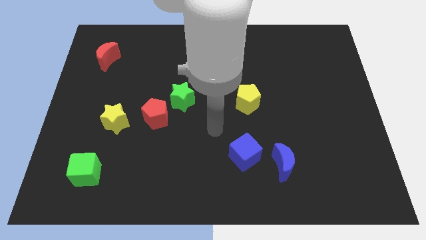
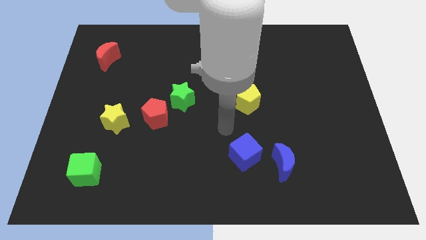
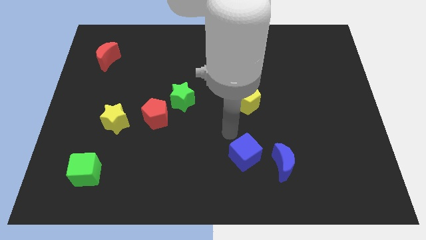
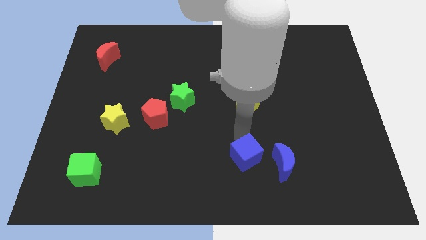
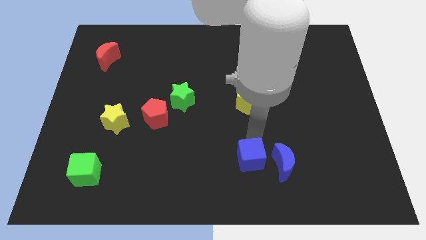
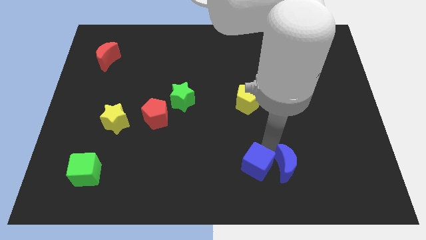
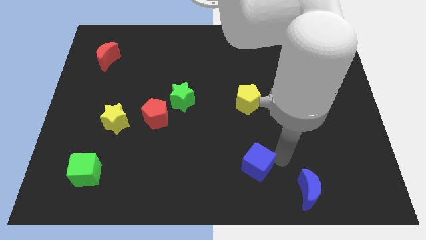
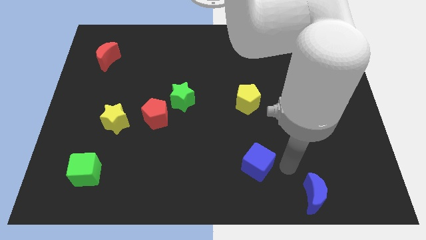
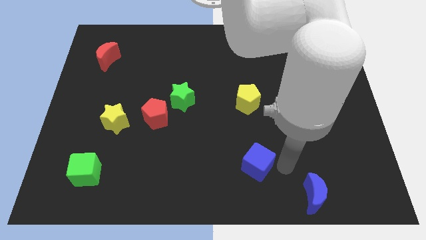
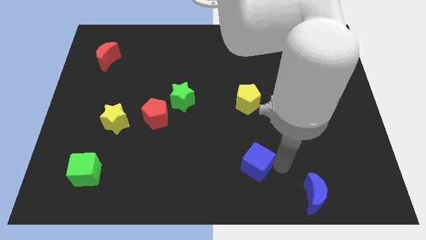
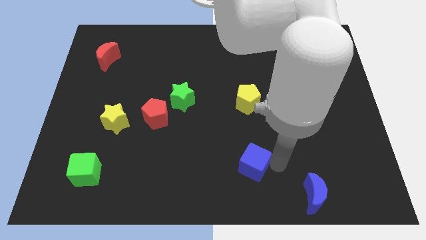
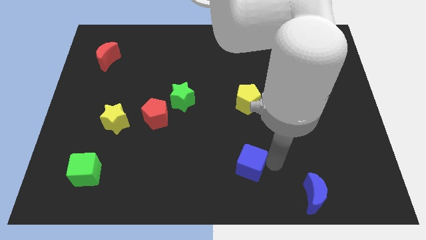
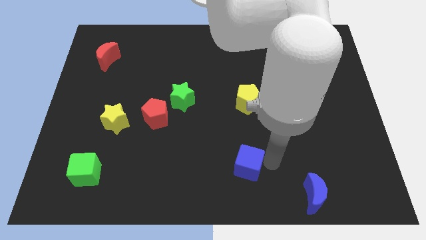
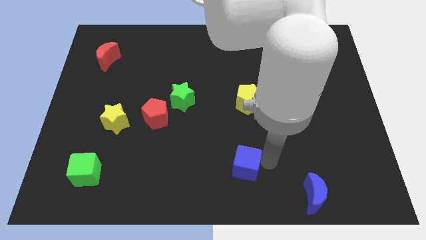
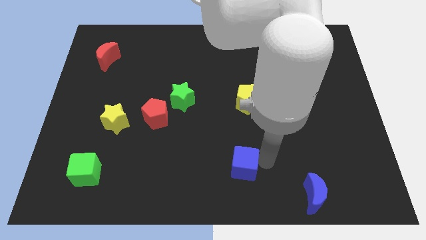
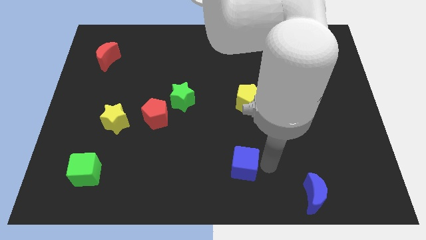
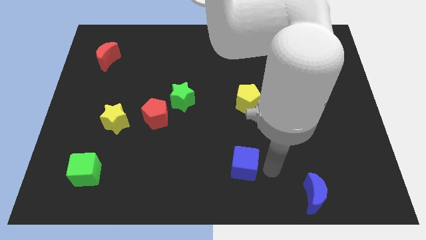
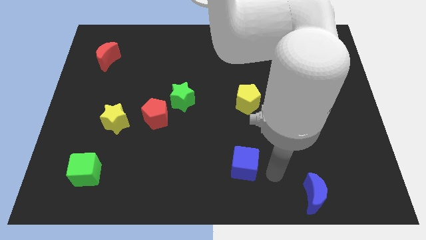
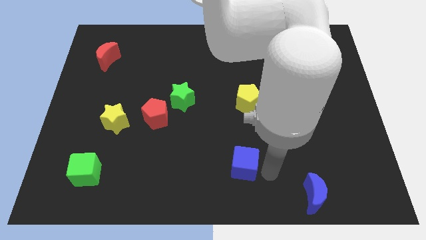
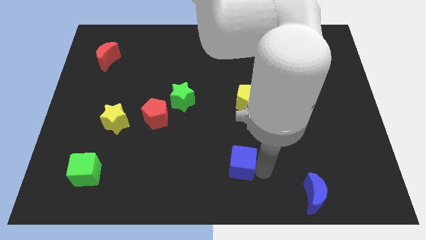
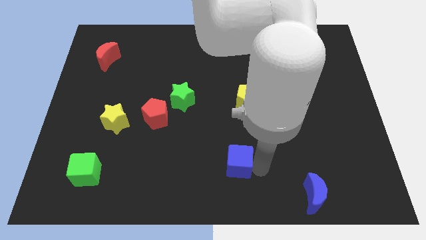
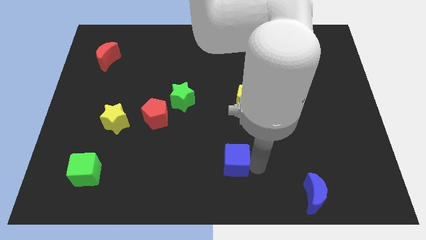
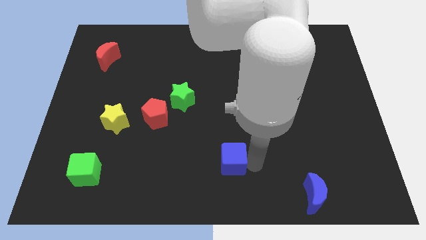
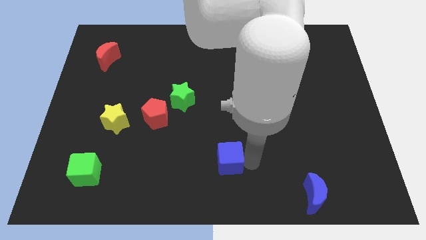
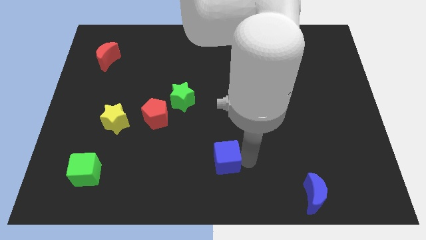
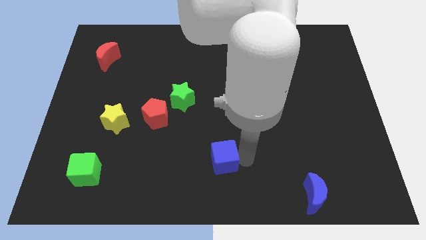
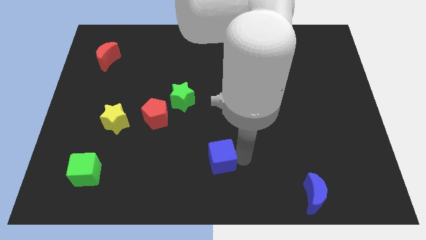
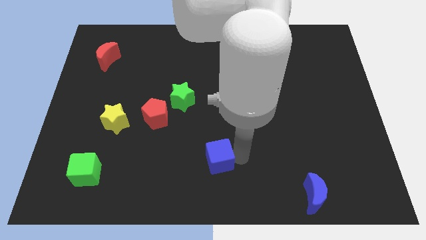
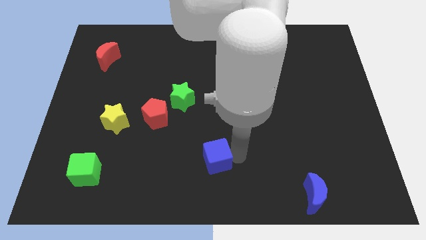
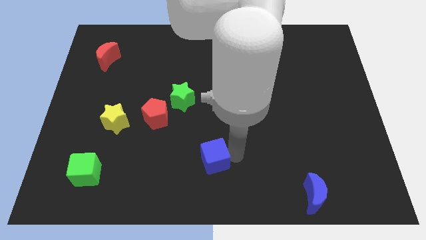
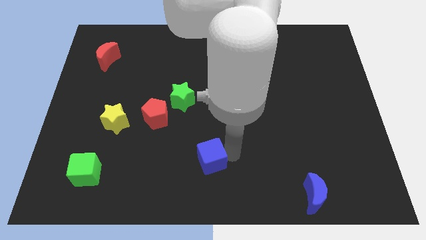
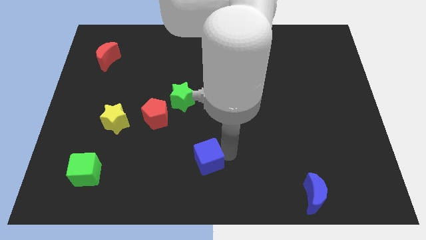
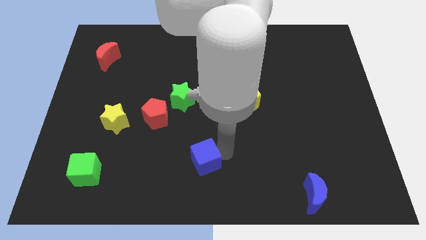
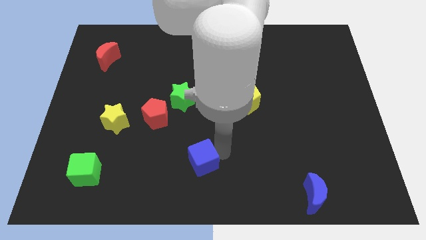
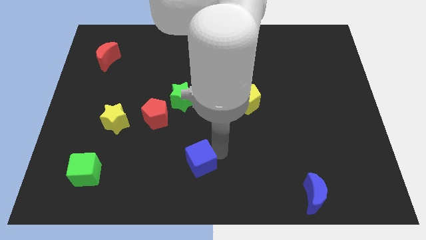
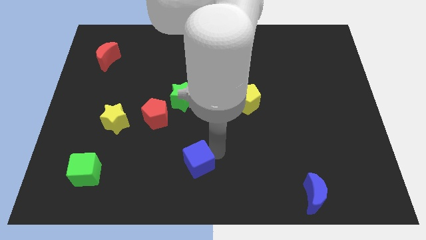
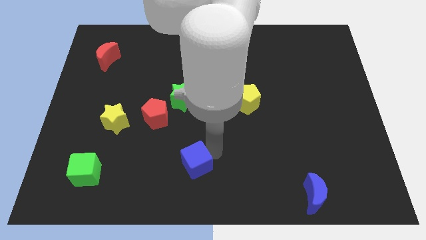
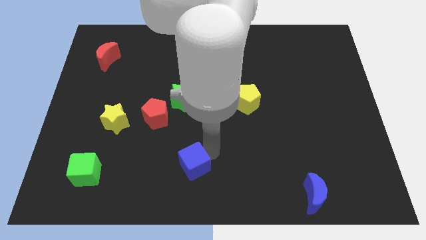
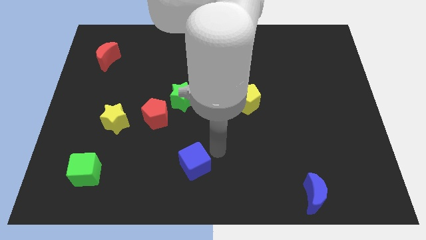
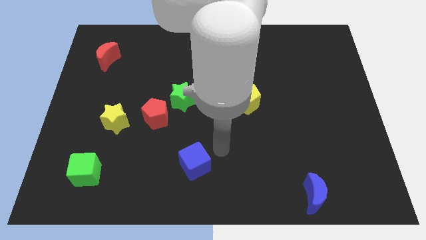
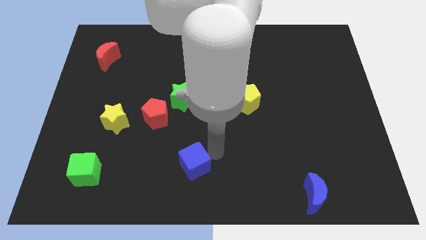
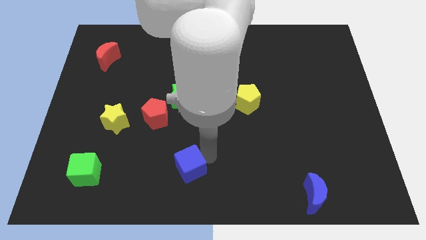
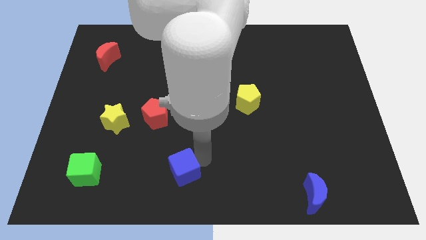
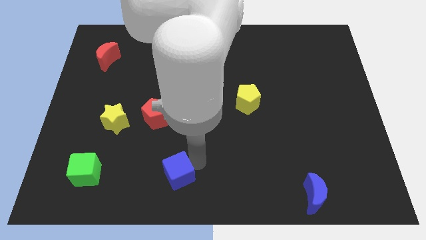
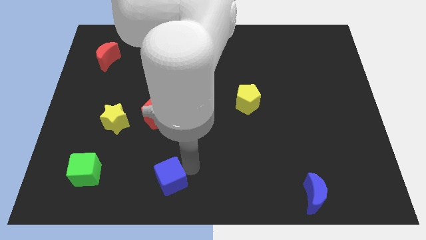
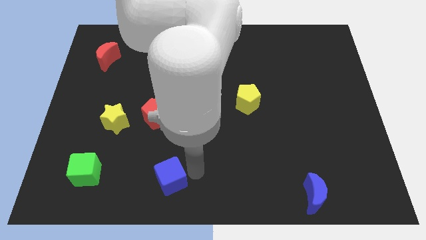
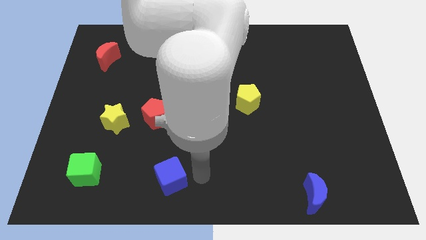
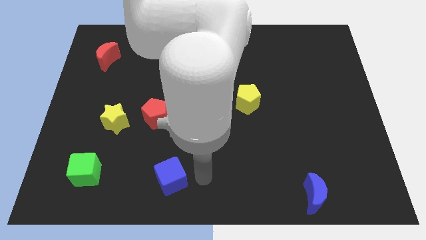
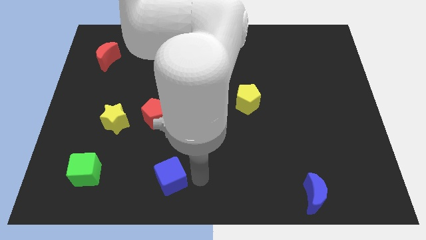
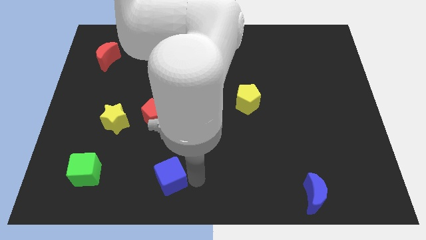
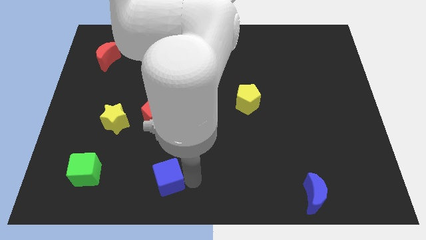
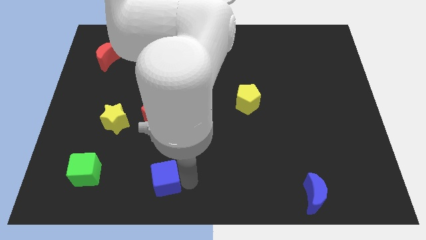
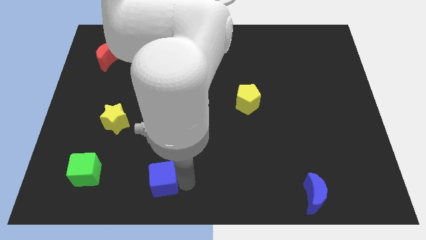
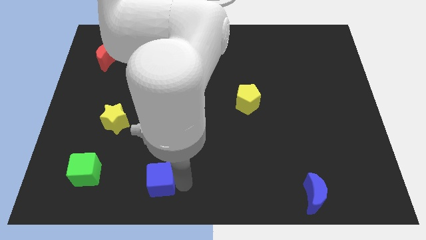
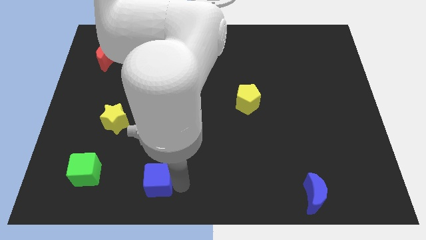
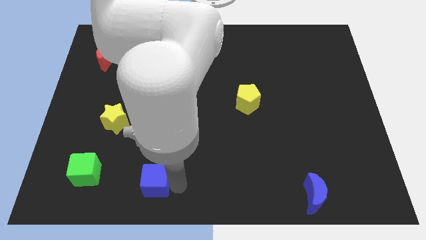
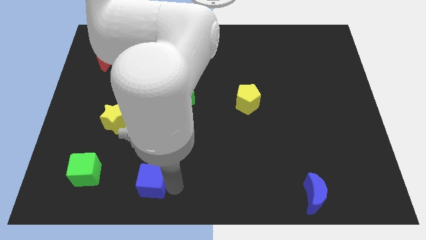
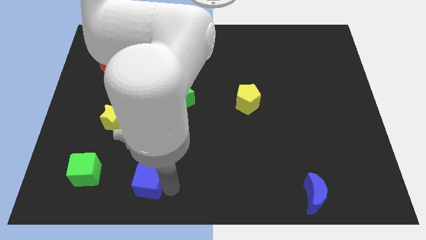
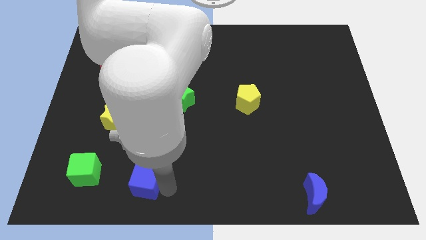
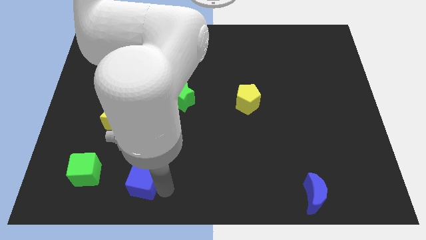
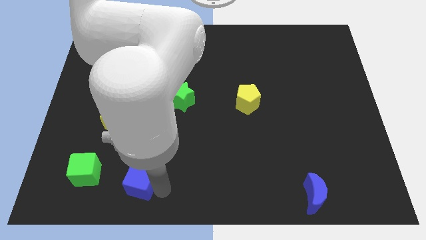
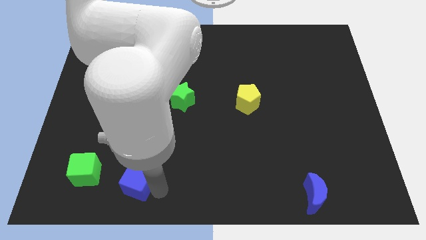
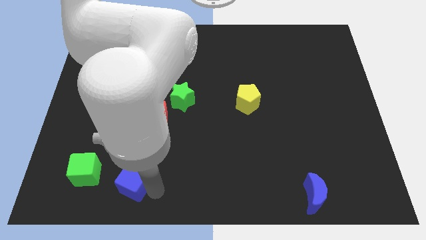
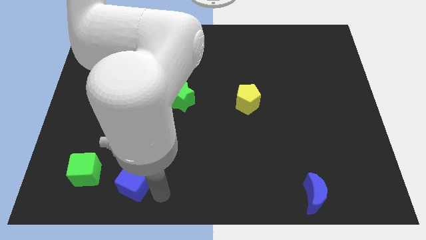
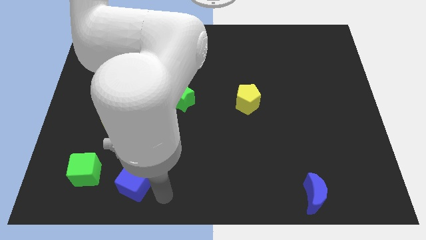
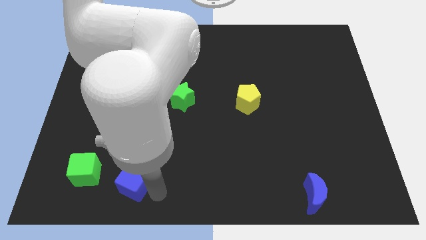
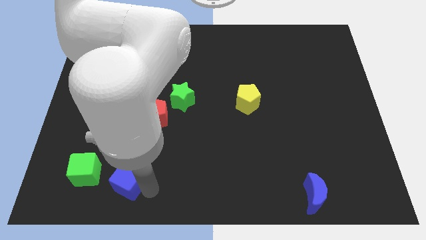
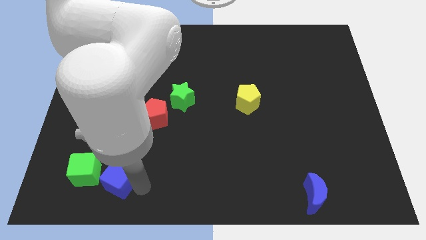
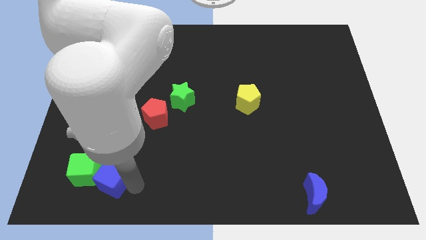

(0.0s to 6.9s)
move the blue cube next to the green cube

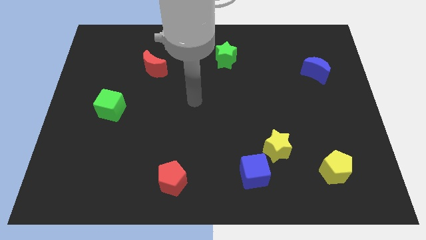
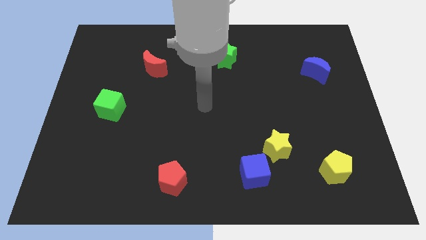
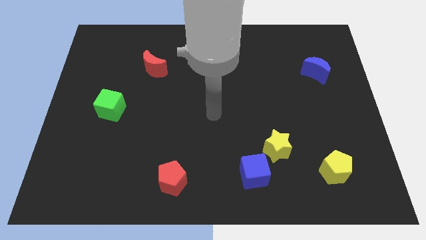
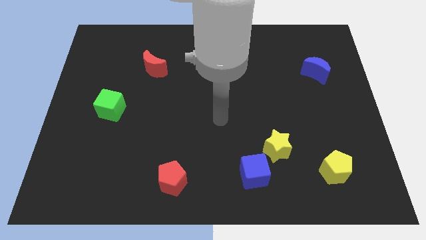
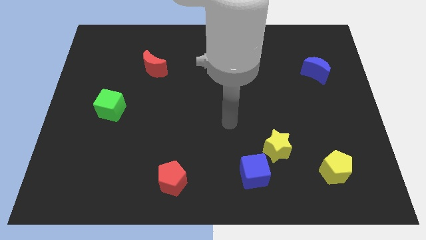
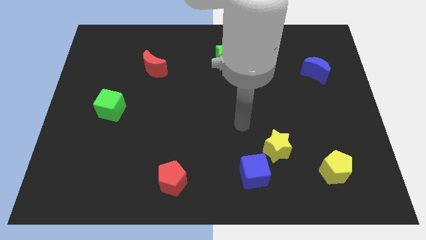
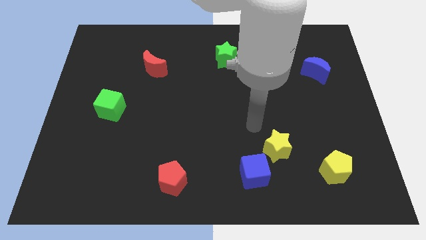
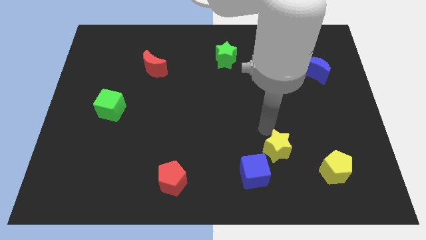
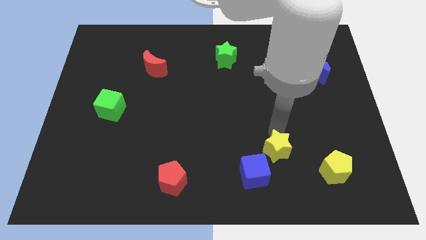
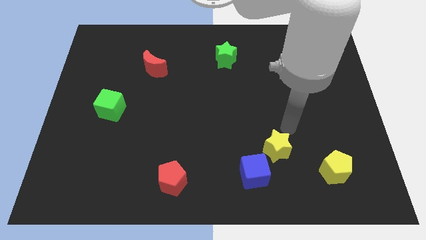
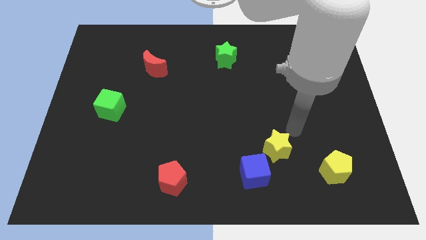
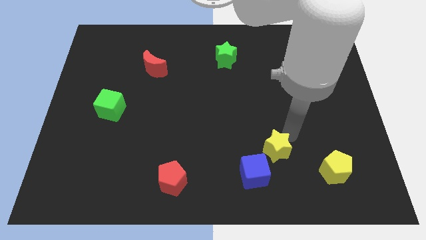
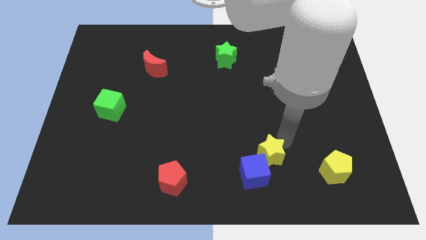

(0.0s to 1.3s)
push the yellow star next to the blue cube
